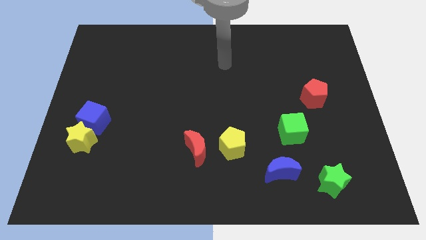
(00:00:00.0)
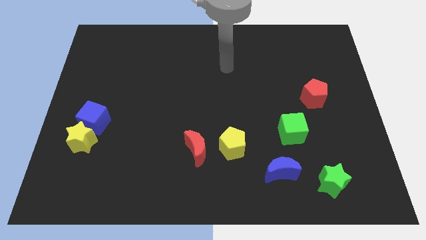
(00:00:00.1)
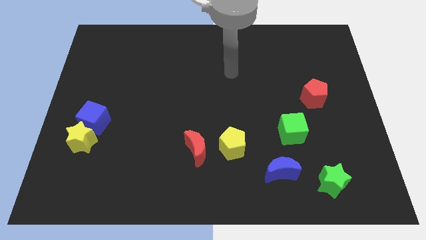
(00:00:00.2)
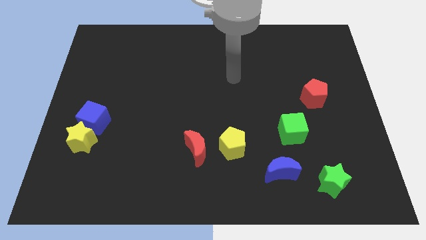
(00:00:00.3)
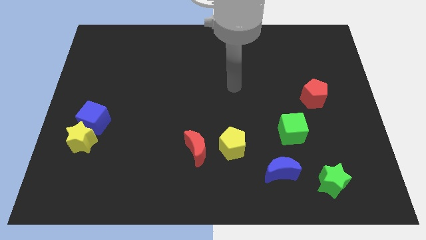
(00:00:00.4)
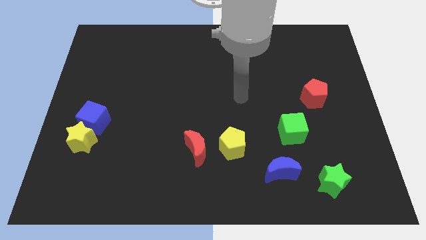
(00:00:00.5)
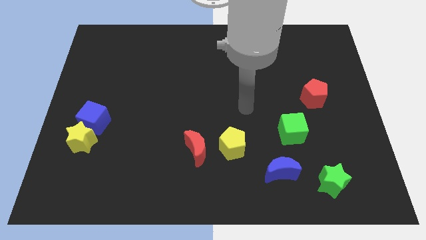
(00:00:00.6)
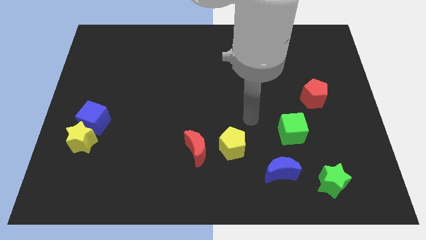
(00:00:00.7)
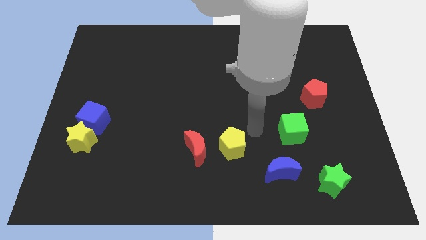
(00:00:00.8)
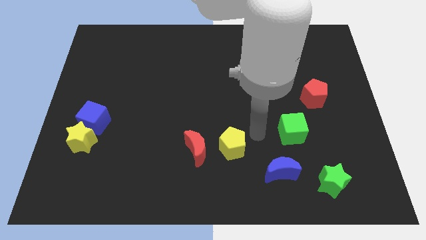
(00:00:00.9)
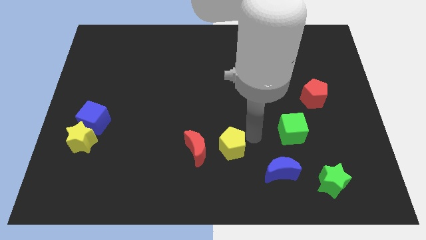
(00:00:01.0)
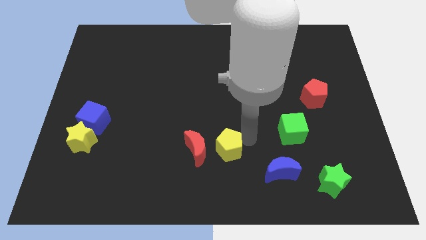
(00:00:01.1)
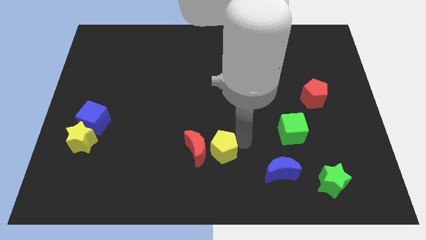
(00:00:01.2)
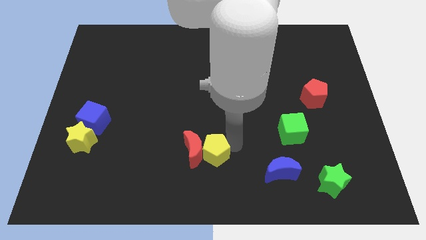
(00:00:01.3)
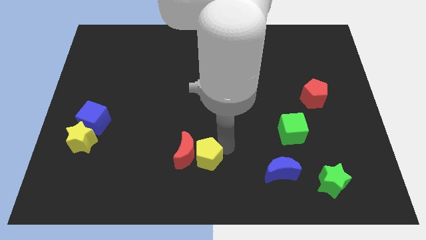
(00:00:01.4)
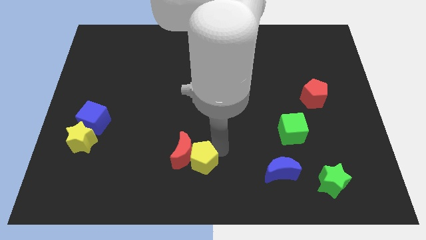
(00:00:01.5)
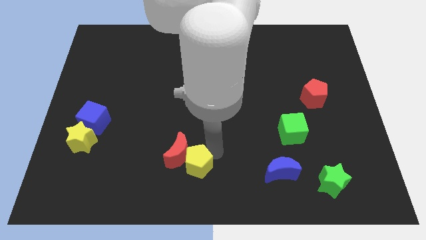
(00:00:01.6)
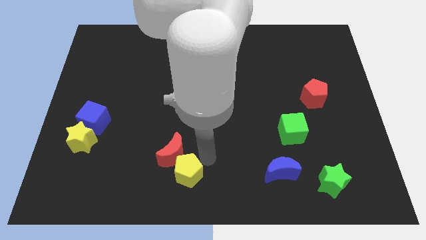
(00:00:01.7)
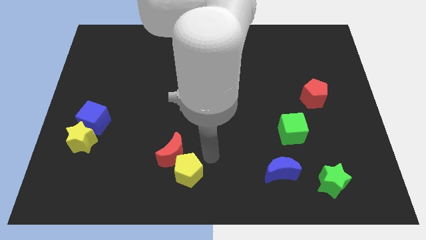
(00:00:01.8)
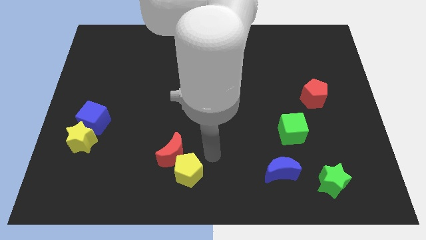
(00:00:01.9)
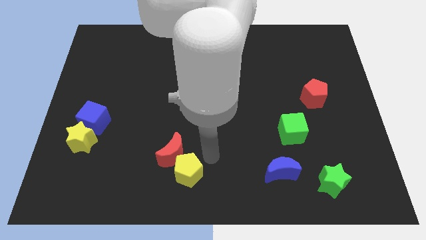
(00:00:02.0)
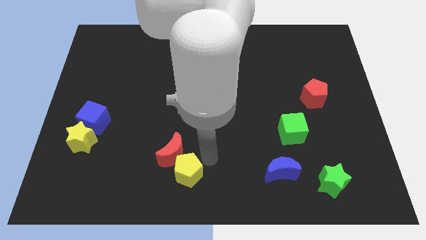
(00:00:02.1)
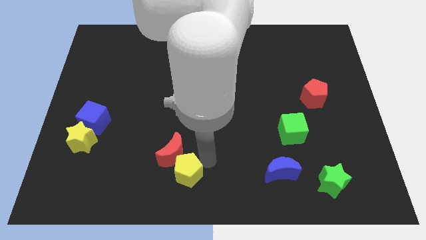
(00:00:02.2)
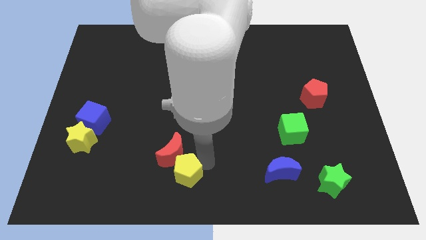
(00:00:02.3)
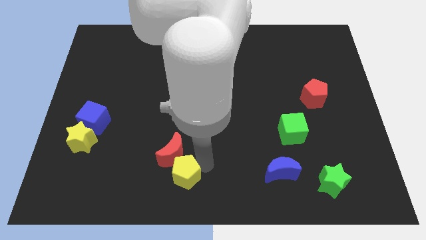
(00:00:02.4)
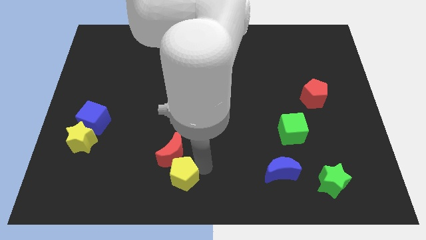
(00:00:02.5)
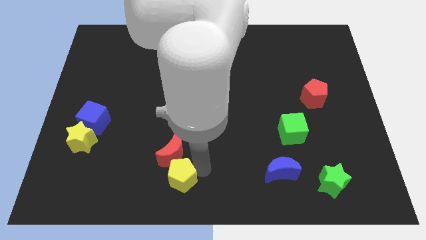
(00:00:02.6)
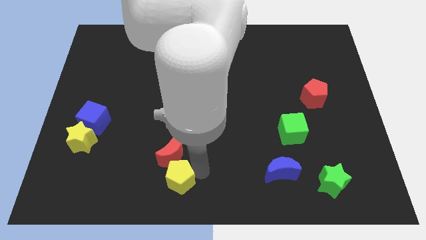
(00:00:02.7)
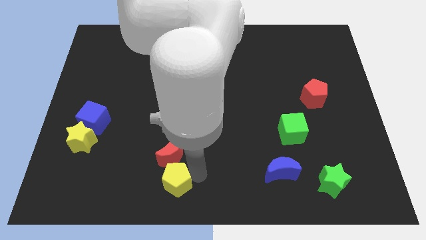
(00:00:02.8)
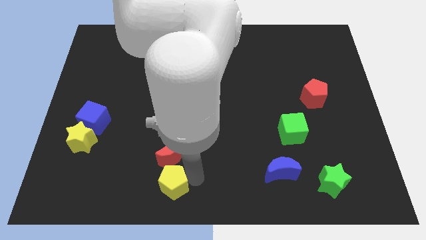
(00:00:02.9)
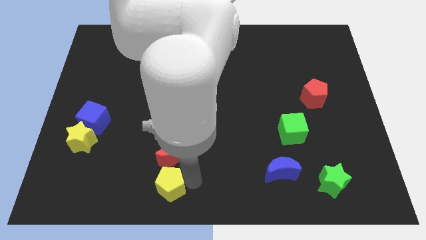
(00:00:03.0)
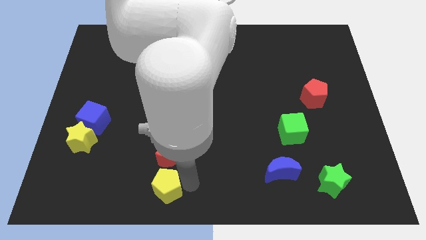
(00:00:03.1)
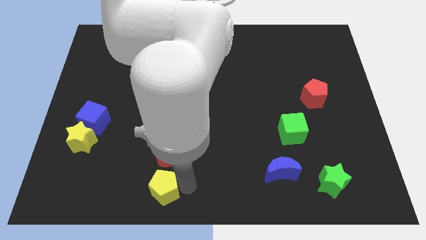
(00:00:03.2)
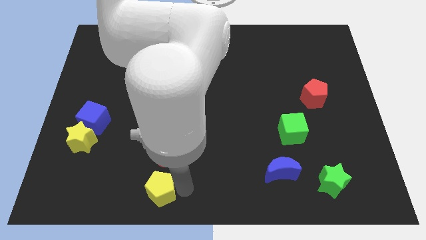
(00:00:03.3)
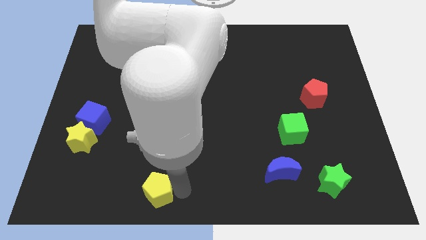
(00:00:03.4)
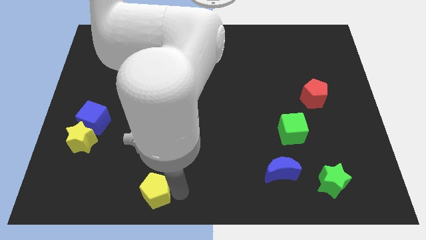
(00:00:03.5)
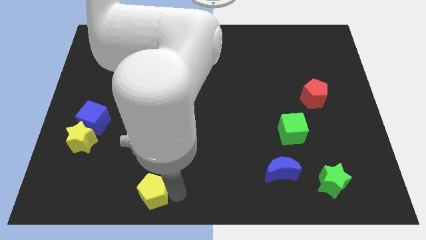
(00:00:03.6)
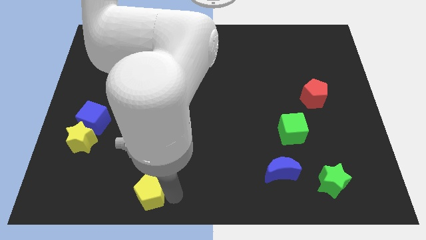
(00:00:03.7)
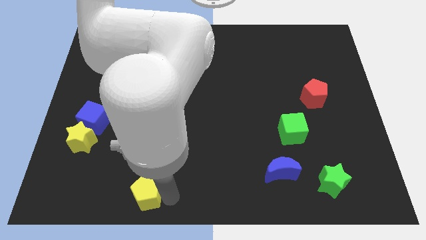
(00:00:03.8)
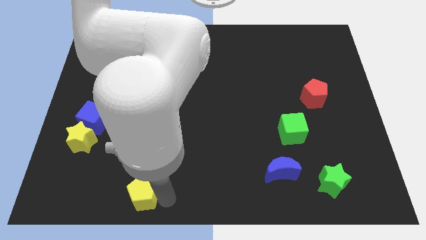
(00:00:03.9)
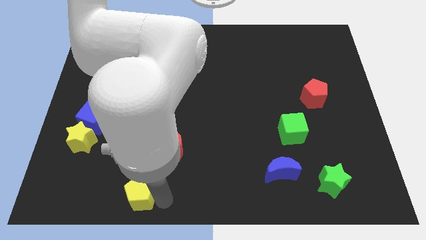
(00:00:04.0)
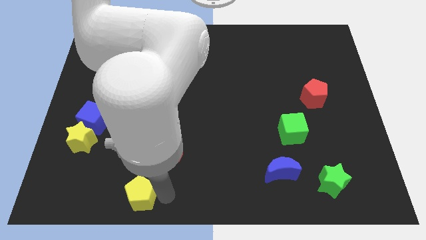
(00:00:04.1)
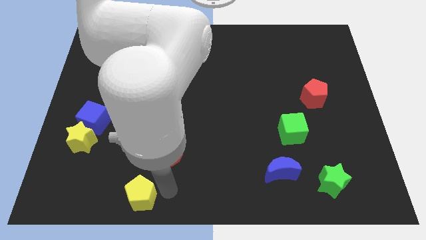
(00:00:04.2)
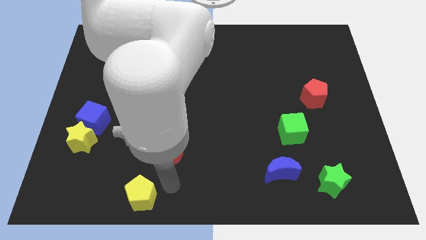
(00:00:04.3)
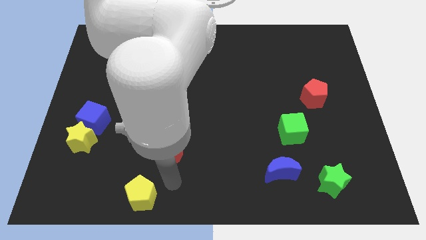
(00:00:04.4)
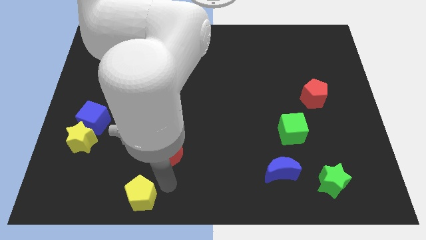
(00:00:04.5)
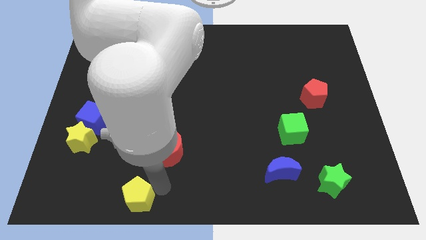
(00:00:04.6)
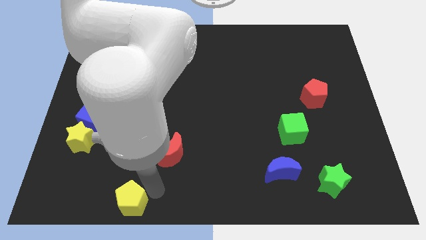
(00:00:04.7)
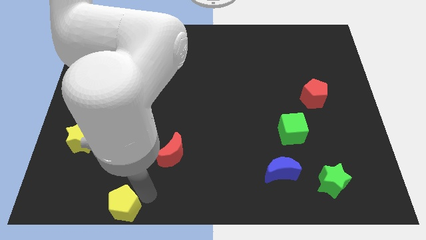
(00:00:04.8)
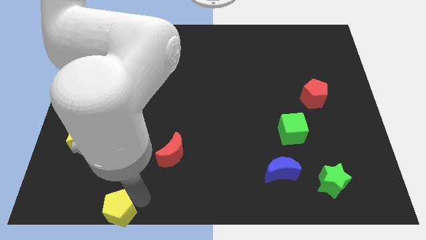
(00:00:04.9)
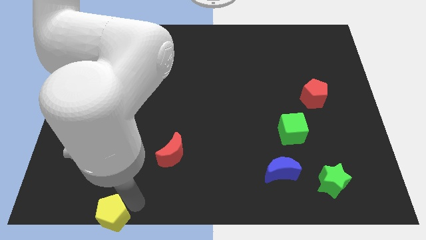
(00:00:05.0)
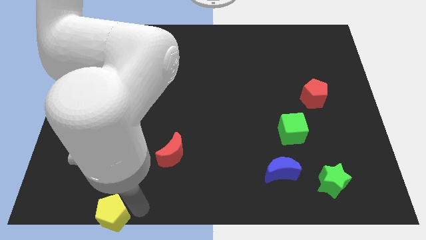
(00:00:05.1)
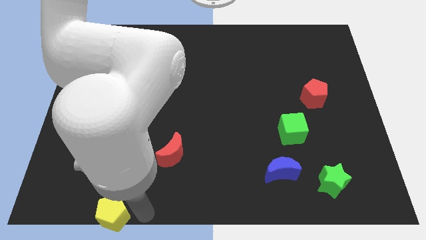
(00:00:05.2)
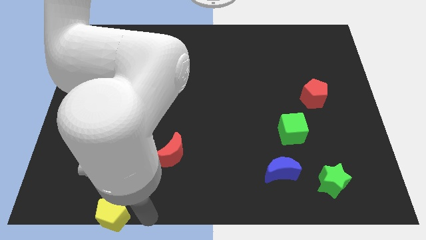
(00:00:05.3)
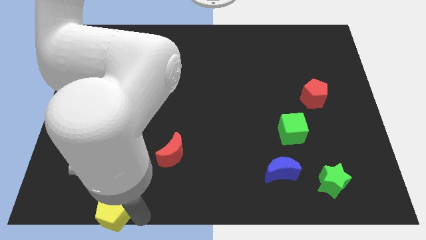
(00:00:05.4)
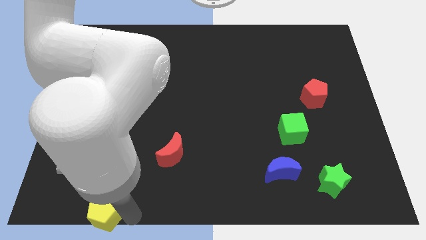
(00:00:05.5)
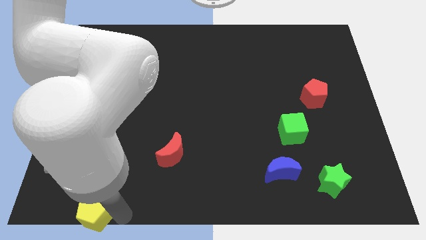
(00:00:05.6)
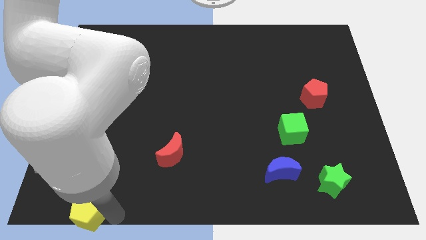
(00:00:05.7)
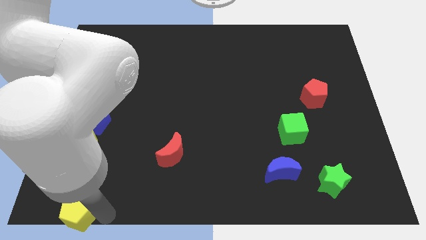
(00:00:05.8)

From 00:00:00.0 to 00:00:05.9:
move the yellow pentagon to the lower left corner

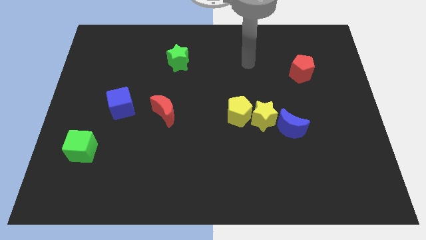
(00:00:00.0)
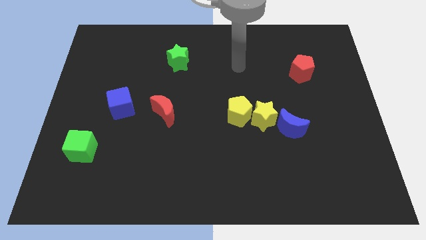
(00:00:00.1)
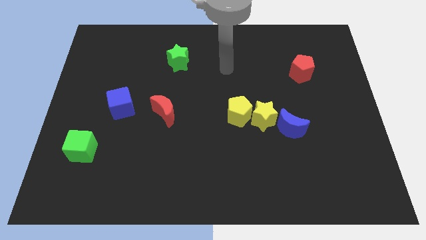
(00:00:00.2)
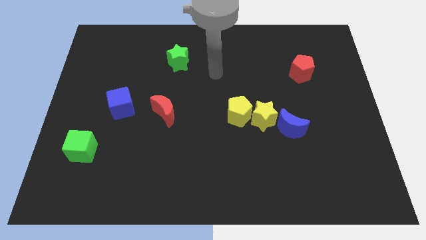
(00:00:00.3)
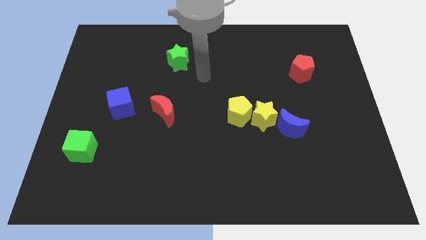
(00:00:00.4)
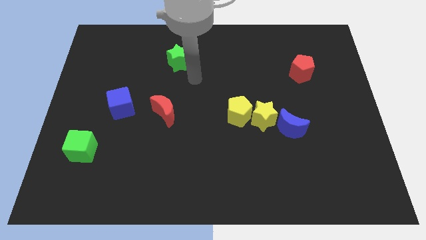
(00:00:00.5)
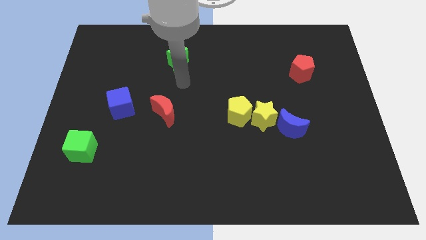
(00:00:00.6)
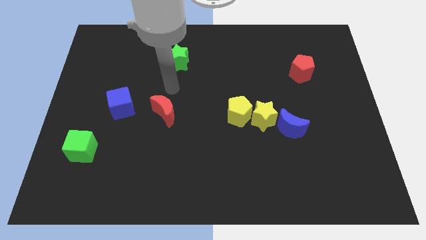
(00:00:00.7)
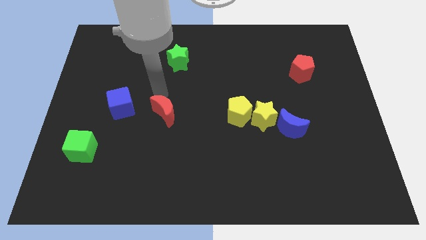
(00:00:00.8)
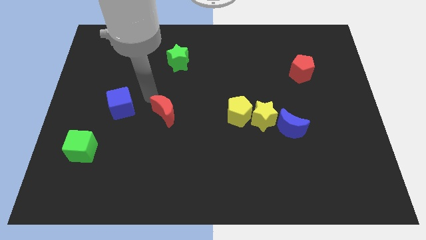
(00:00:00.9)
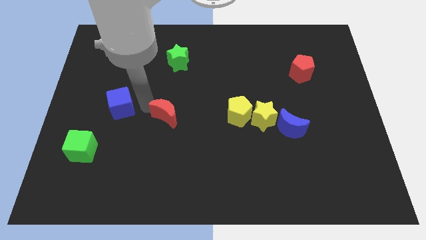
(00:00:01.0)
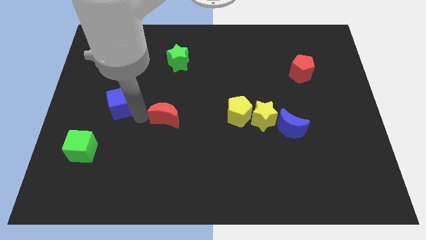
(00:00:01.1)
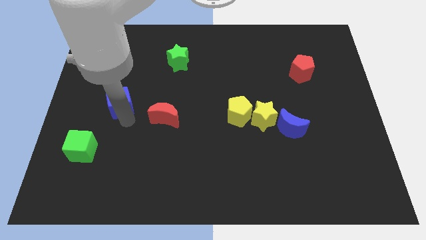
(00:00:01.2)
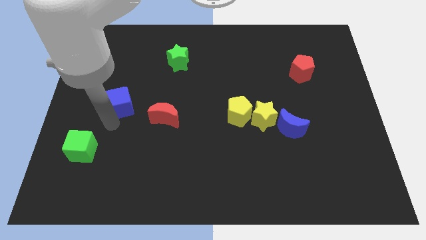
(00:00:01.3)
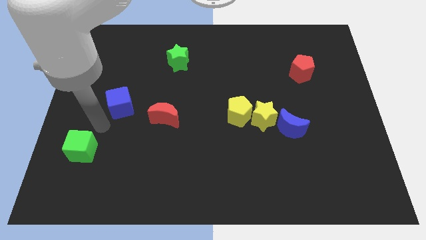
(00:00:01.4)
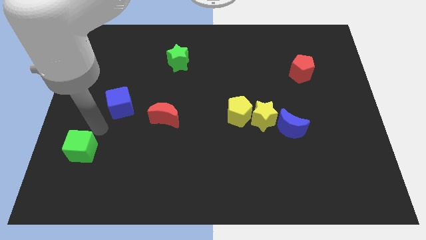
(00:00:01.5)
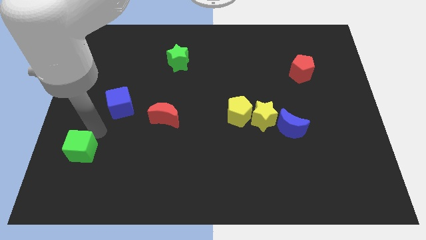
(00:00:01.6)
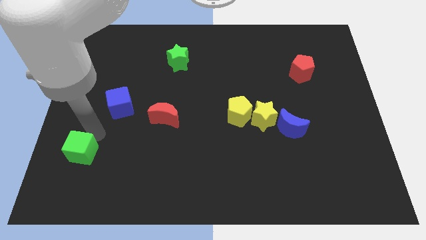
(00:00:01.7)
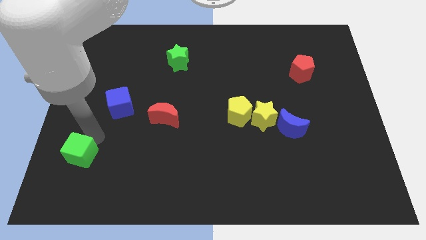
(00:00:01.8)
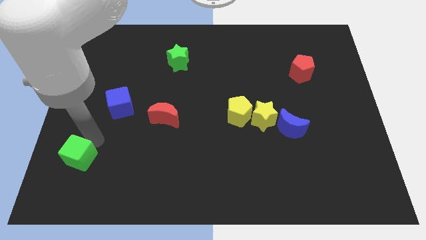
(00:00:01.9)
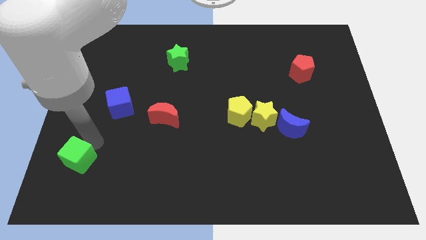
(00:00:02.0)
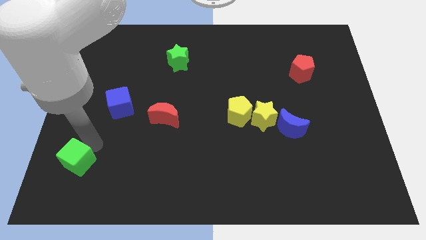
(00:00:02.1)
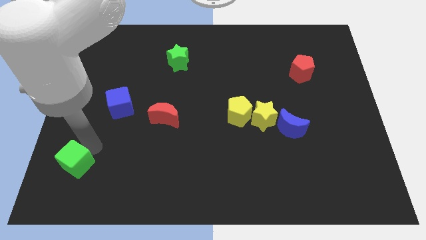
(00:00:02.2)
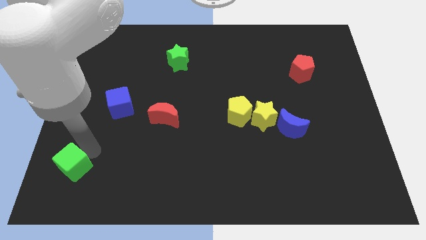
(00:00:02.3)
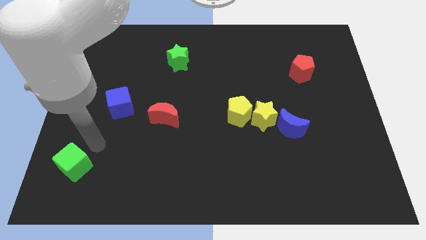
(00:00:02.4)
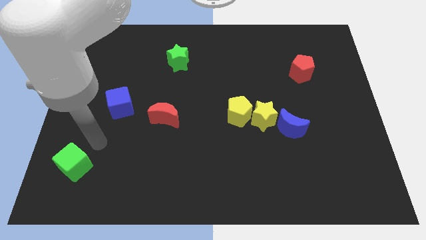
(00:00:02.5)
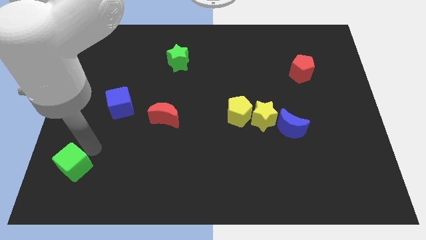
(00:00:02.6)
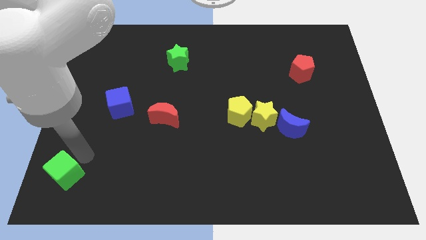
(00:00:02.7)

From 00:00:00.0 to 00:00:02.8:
move the green cube to the bottom left of the board
